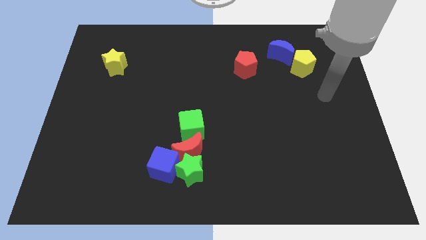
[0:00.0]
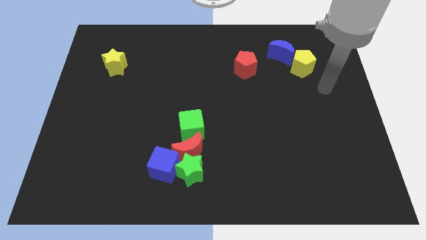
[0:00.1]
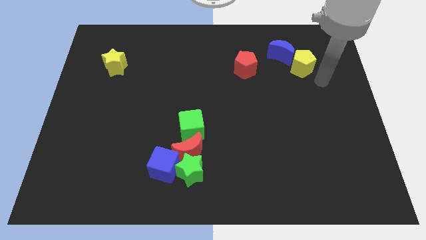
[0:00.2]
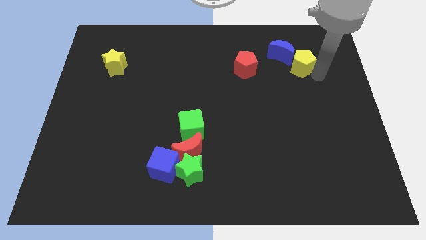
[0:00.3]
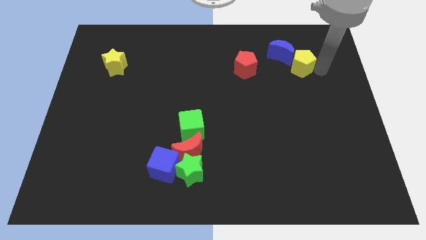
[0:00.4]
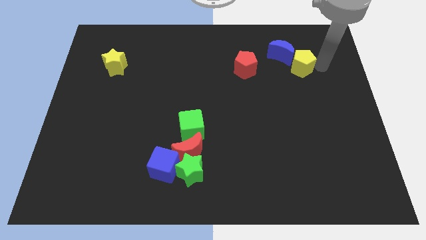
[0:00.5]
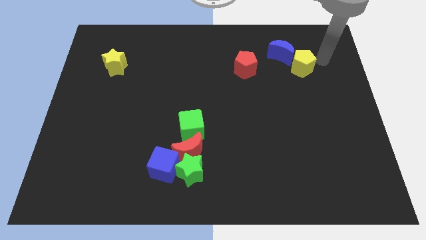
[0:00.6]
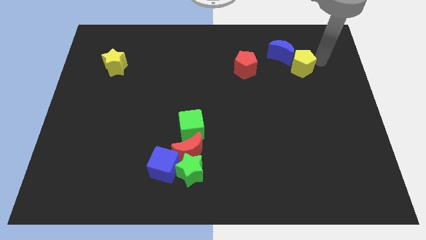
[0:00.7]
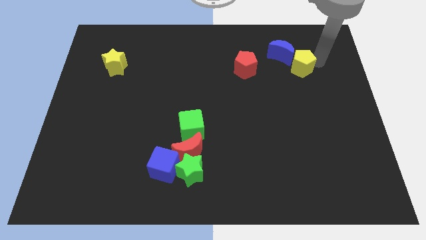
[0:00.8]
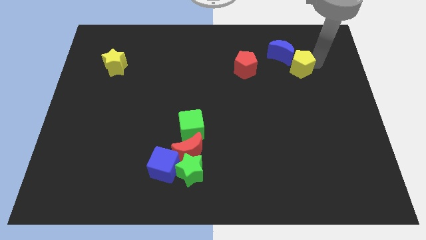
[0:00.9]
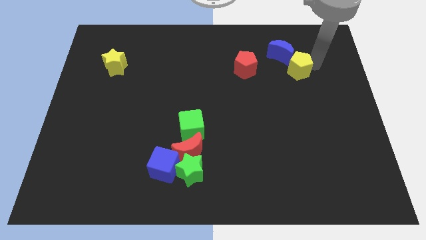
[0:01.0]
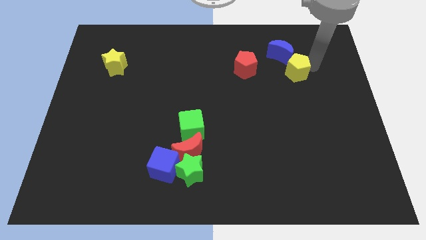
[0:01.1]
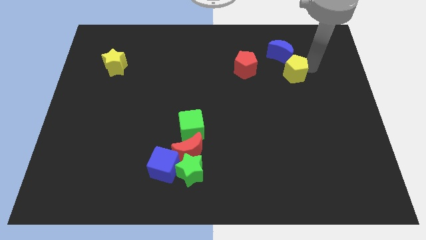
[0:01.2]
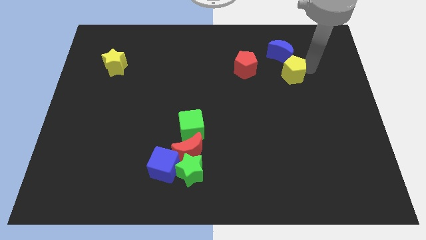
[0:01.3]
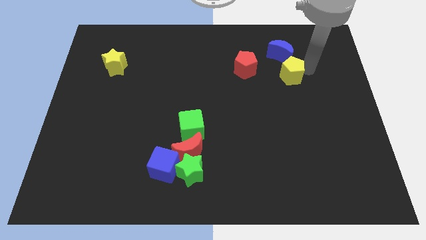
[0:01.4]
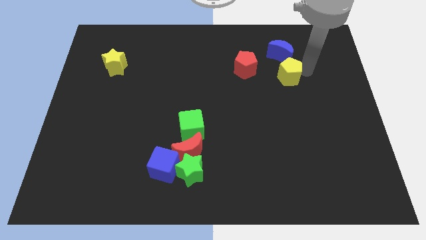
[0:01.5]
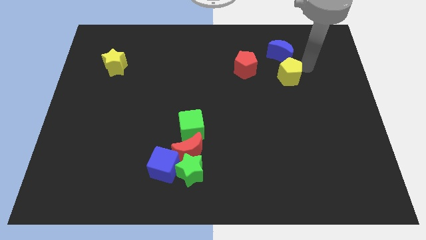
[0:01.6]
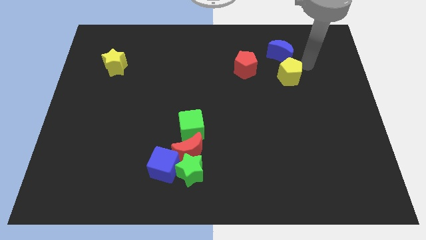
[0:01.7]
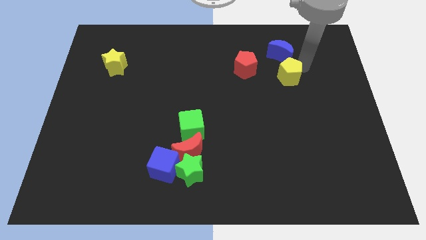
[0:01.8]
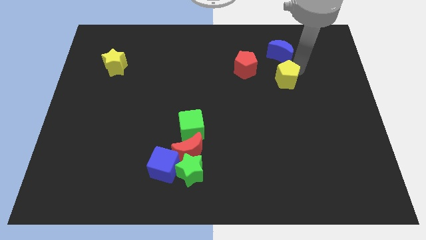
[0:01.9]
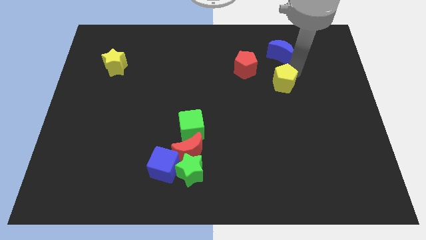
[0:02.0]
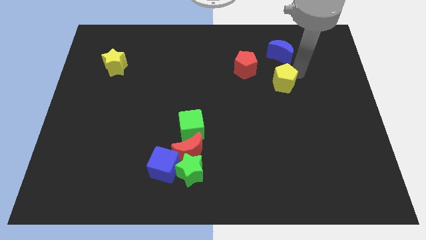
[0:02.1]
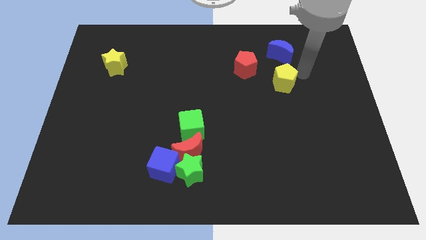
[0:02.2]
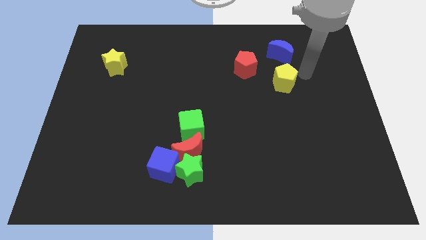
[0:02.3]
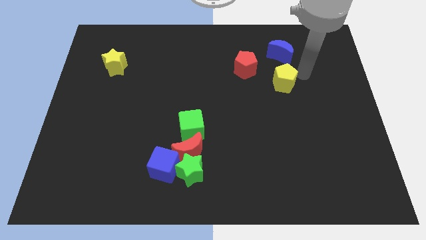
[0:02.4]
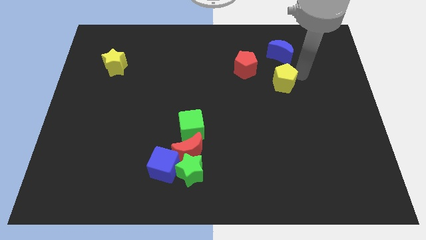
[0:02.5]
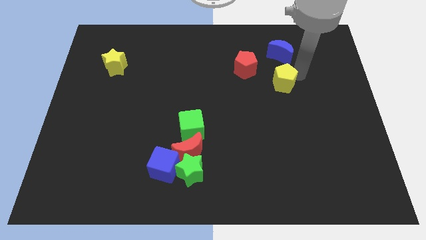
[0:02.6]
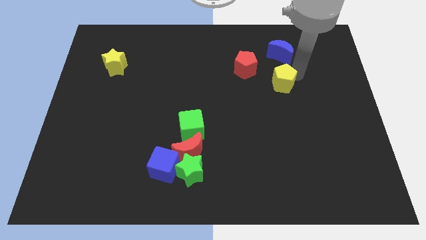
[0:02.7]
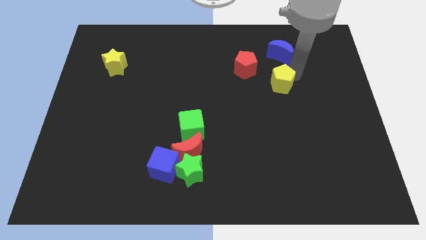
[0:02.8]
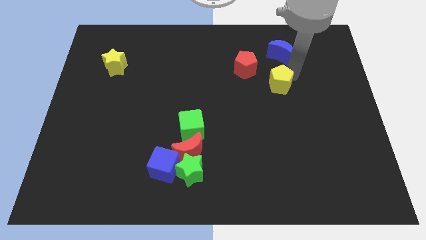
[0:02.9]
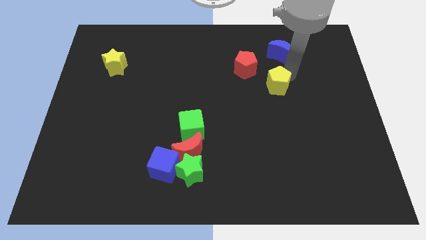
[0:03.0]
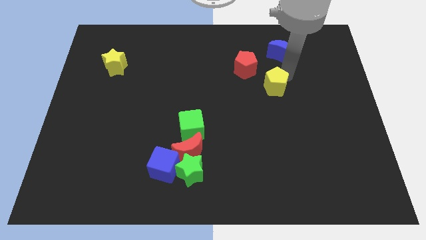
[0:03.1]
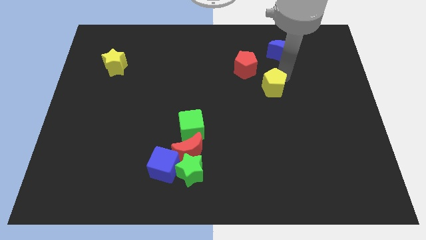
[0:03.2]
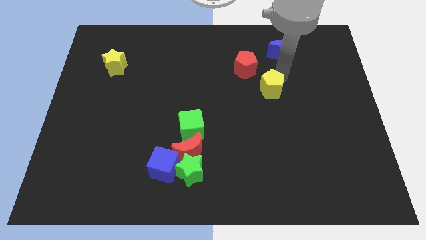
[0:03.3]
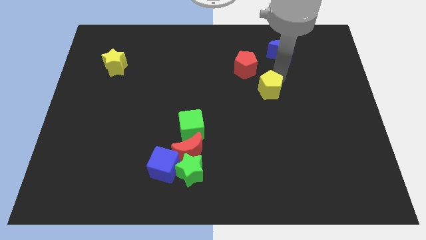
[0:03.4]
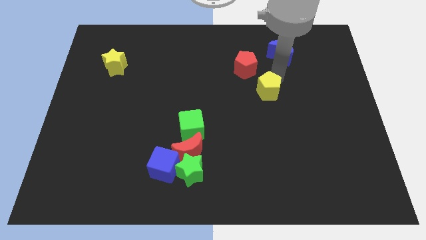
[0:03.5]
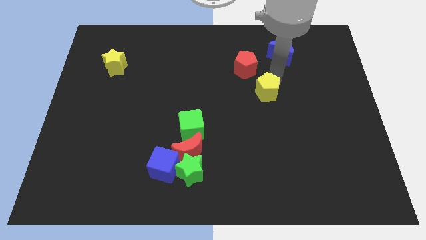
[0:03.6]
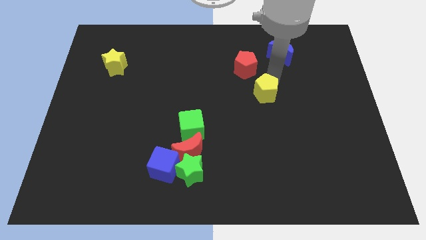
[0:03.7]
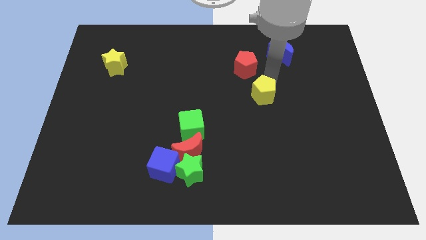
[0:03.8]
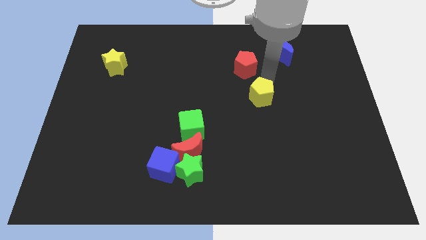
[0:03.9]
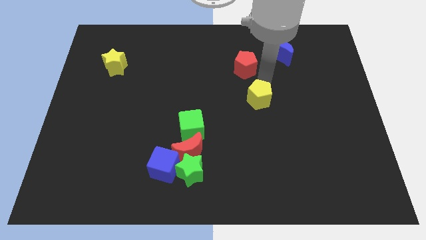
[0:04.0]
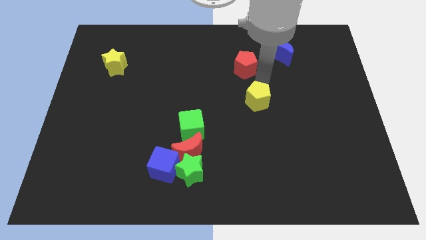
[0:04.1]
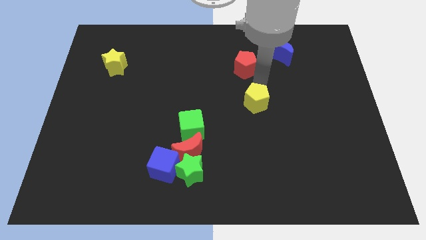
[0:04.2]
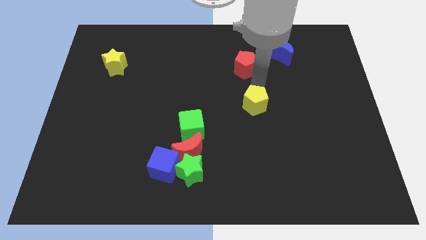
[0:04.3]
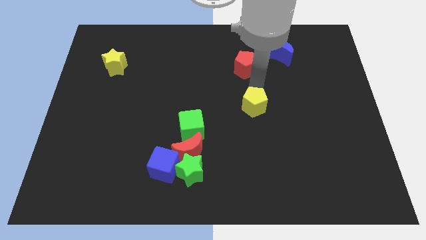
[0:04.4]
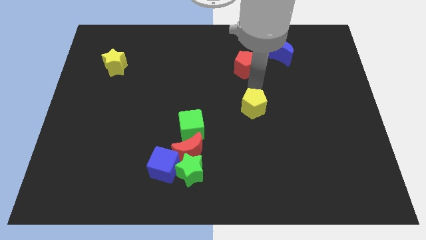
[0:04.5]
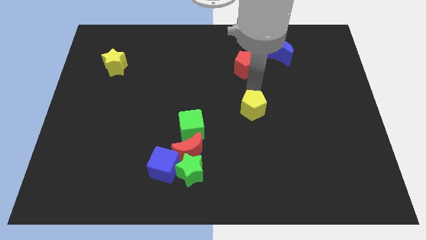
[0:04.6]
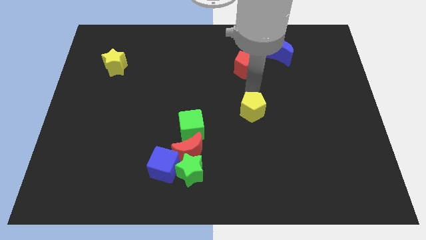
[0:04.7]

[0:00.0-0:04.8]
push the yellow pentagon downwards and to the left

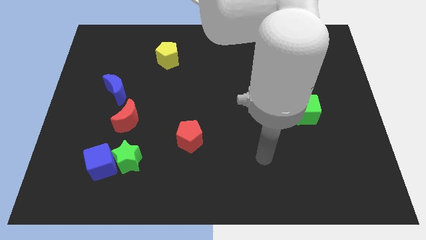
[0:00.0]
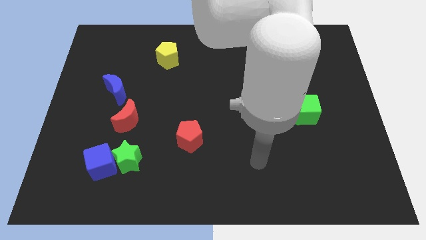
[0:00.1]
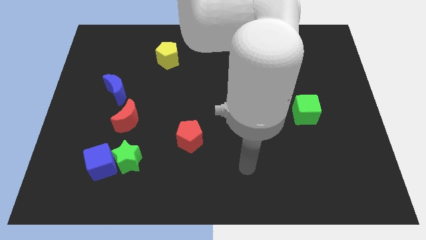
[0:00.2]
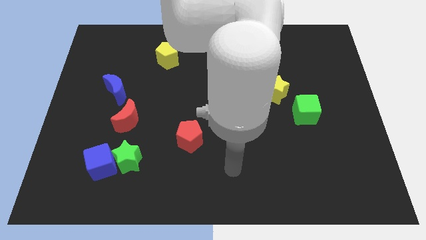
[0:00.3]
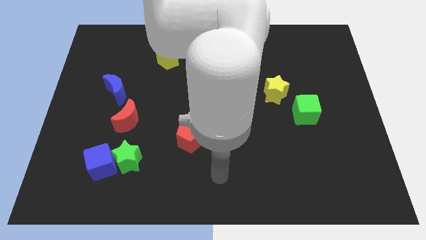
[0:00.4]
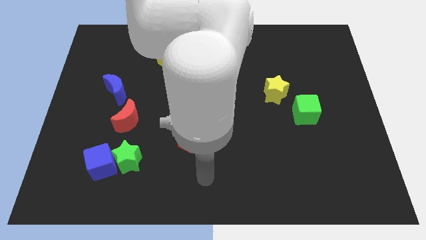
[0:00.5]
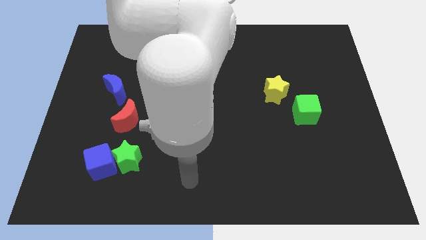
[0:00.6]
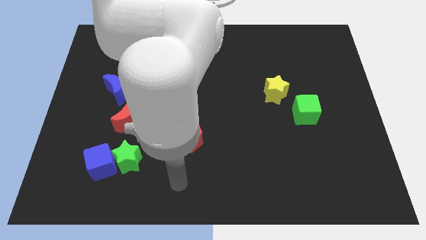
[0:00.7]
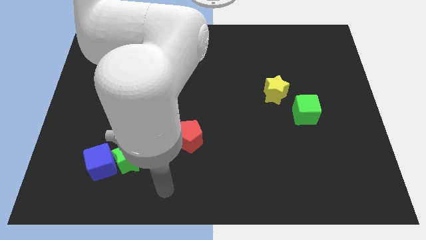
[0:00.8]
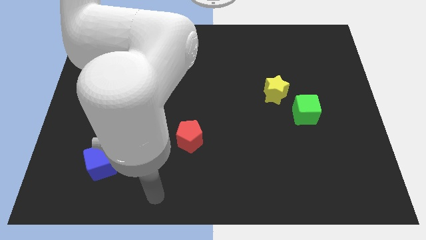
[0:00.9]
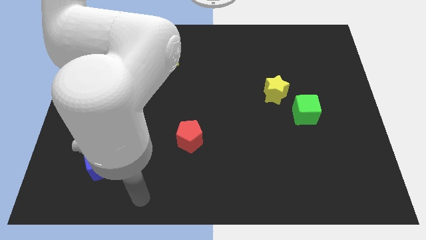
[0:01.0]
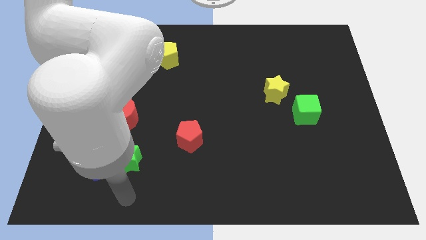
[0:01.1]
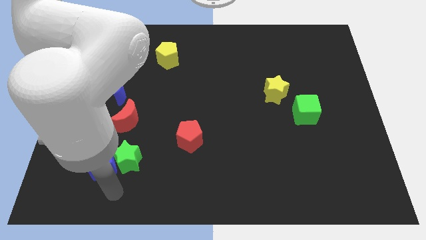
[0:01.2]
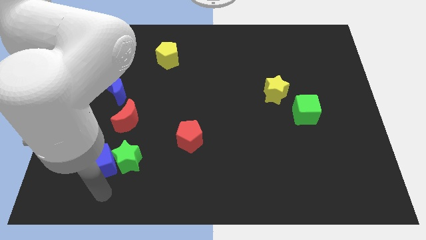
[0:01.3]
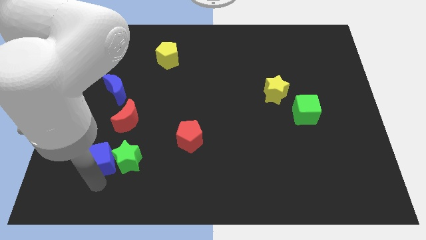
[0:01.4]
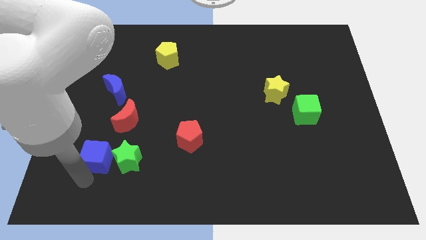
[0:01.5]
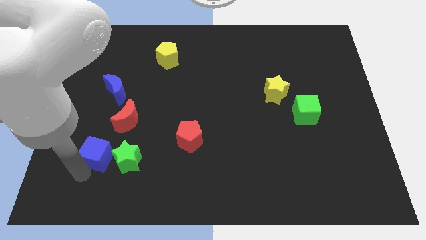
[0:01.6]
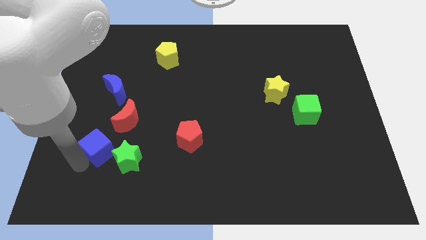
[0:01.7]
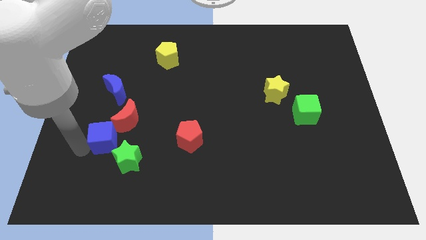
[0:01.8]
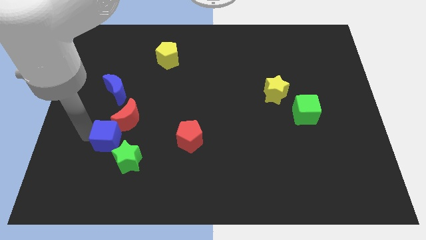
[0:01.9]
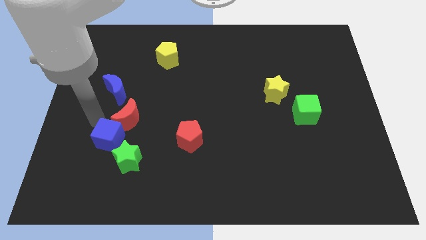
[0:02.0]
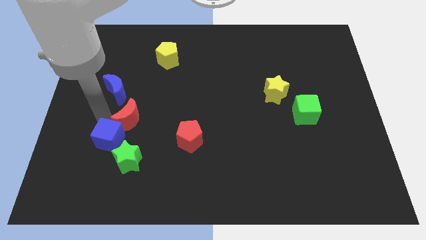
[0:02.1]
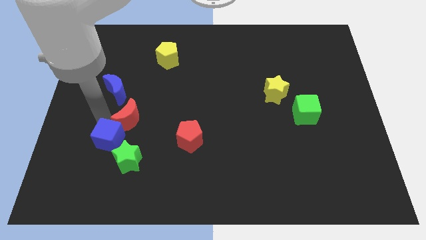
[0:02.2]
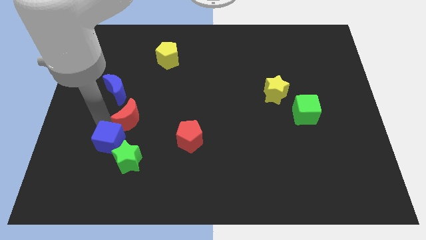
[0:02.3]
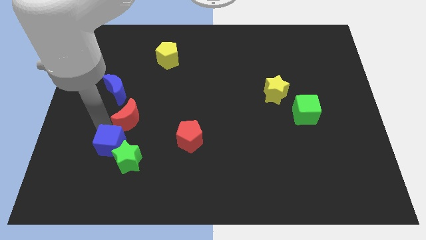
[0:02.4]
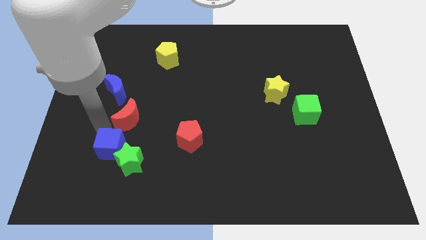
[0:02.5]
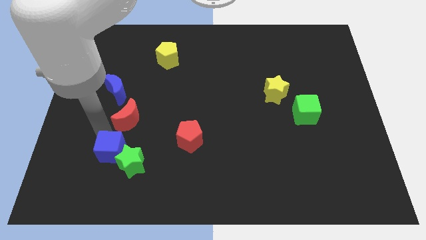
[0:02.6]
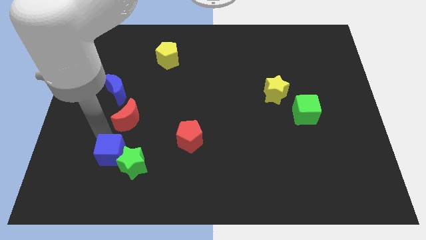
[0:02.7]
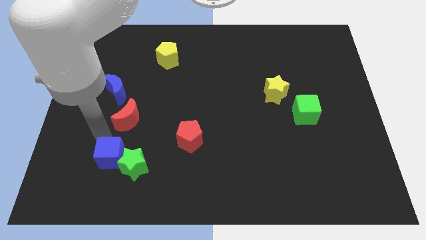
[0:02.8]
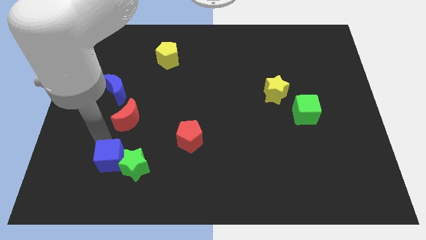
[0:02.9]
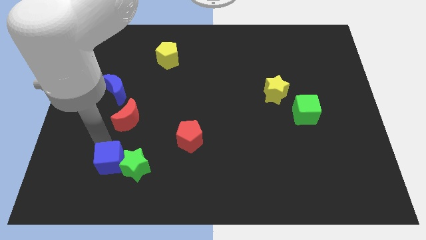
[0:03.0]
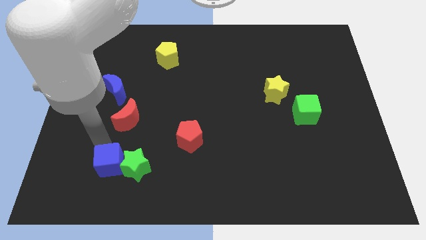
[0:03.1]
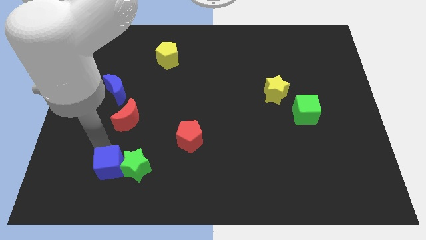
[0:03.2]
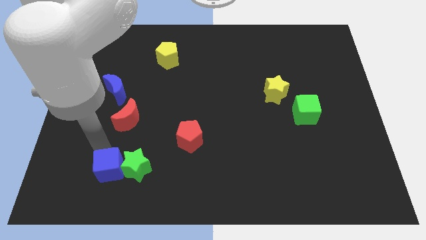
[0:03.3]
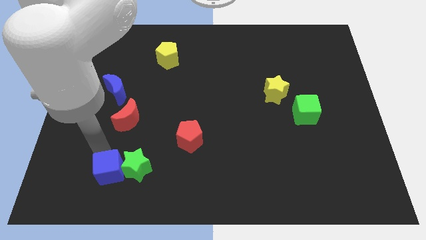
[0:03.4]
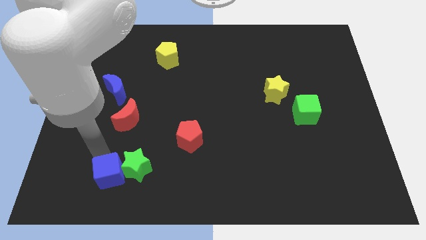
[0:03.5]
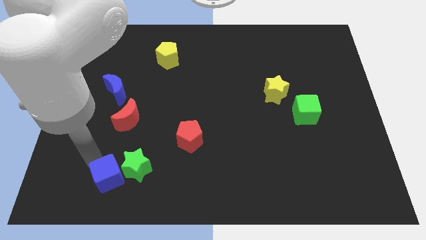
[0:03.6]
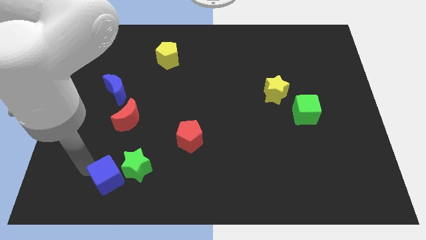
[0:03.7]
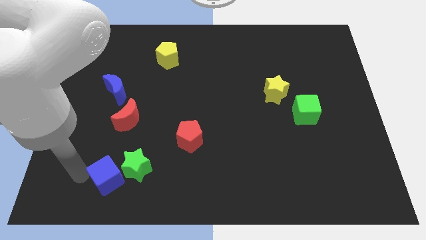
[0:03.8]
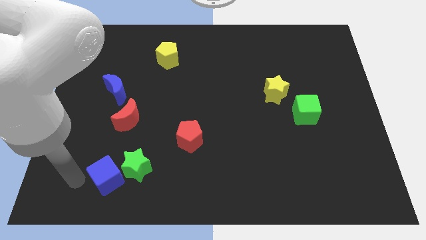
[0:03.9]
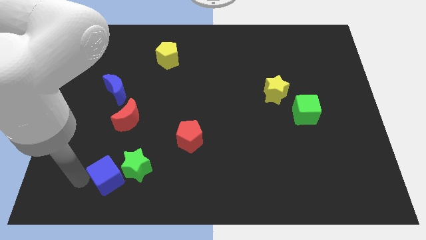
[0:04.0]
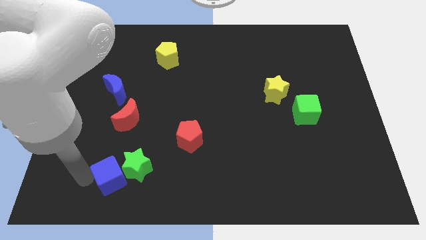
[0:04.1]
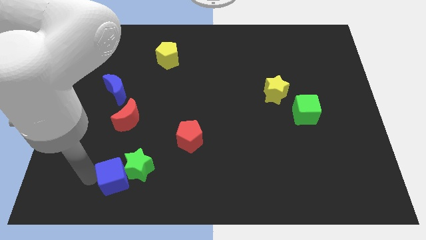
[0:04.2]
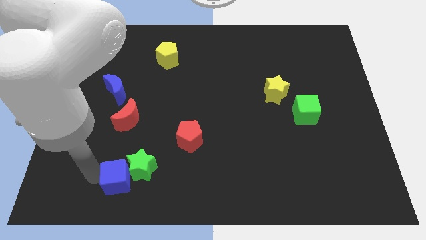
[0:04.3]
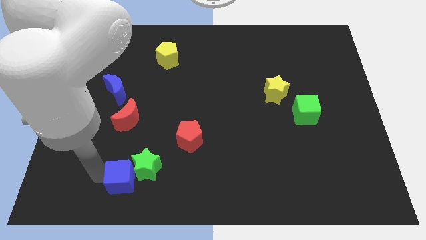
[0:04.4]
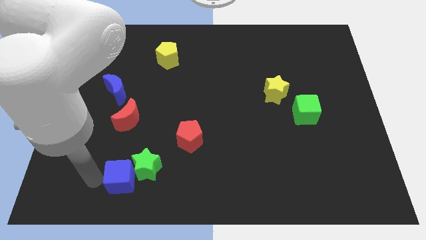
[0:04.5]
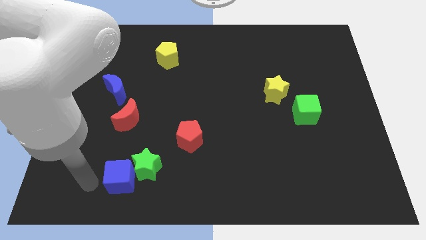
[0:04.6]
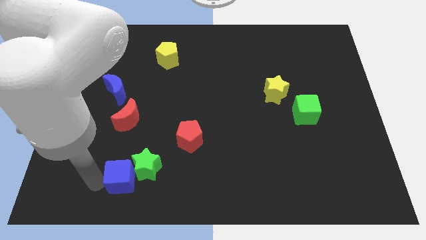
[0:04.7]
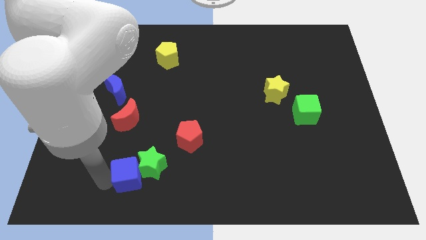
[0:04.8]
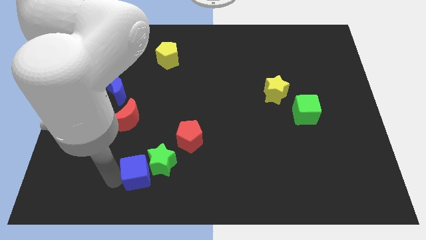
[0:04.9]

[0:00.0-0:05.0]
move the blue cube somewhat to the right
